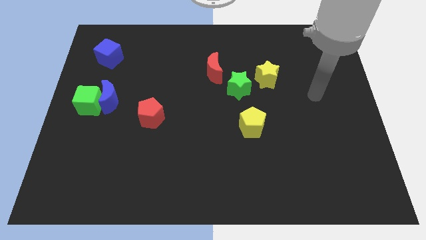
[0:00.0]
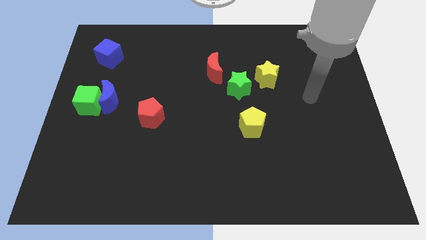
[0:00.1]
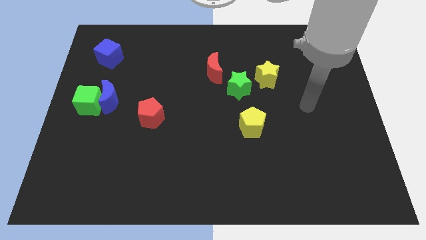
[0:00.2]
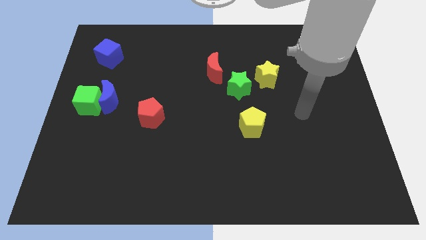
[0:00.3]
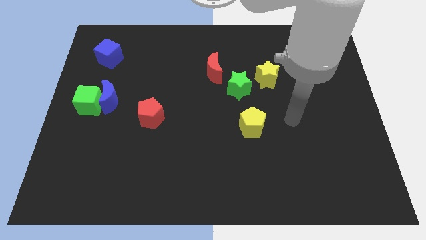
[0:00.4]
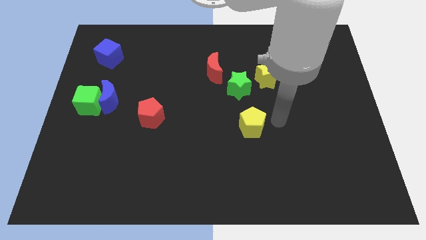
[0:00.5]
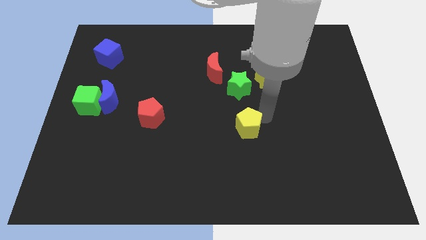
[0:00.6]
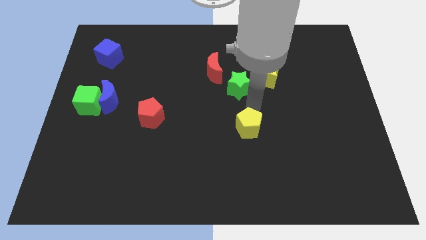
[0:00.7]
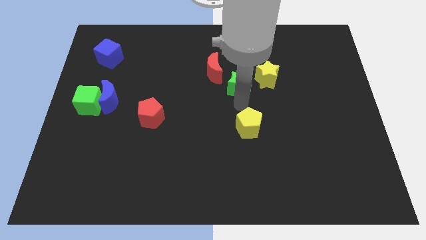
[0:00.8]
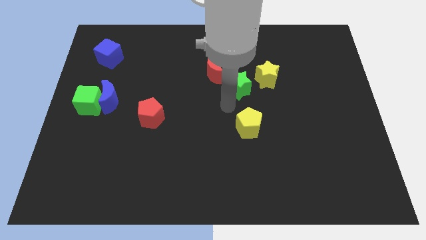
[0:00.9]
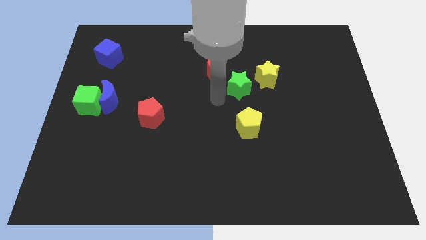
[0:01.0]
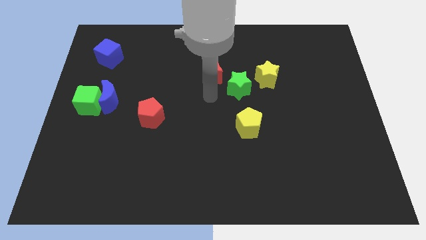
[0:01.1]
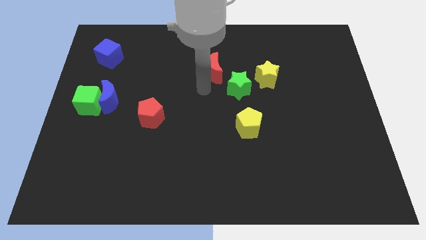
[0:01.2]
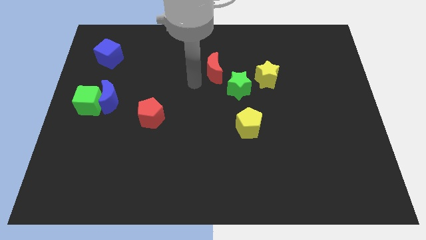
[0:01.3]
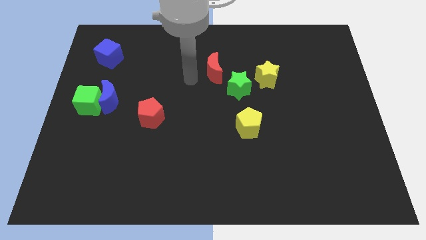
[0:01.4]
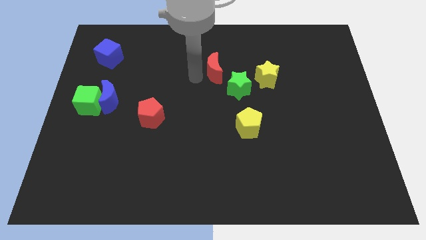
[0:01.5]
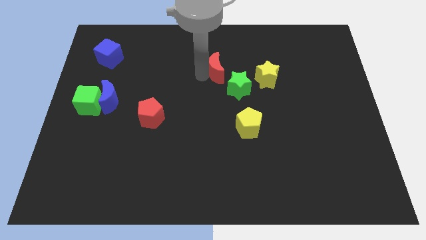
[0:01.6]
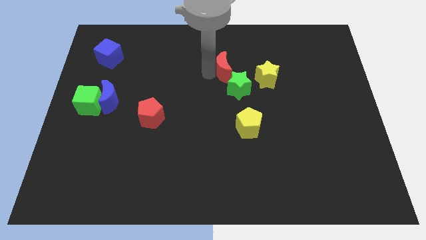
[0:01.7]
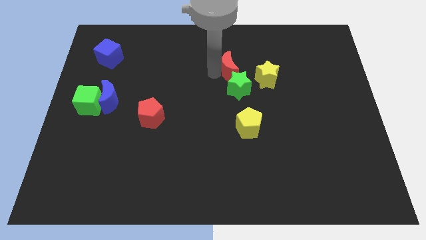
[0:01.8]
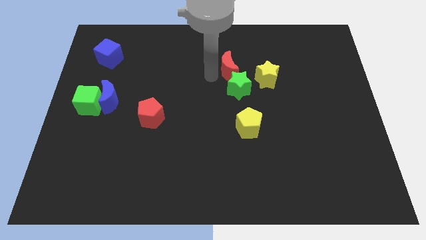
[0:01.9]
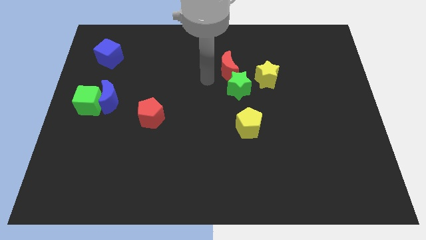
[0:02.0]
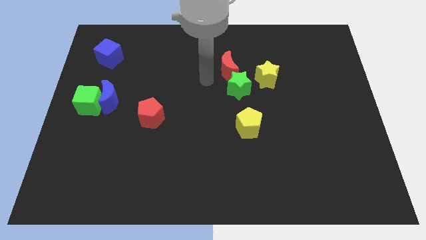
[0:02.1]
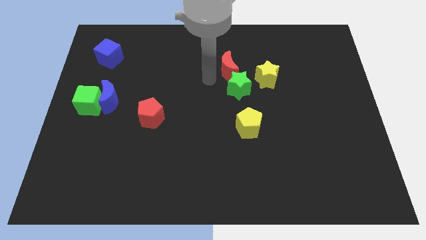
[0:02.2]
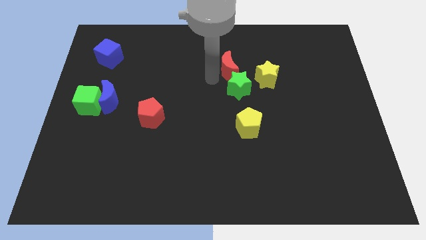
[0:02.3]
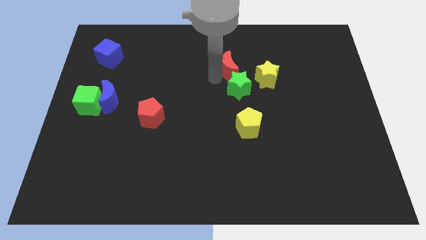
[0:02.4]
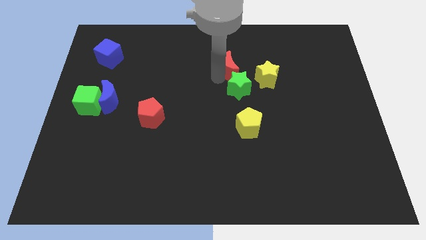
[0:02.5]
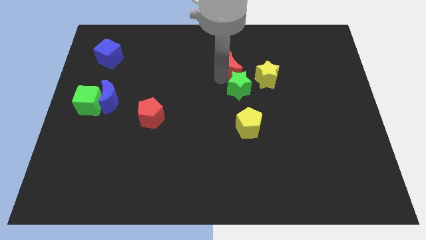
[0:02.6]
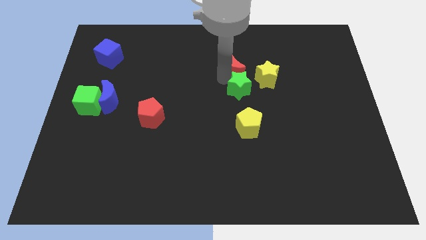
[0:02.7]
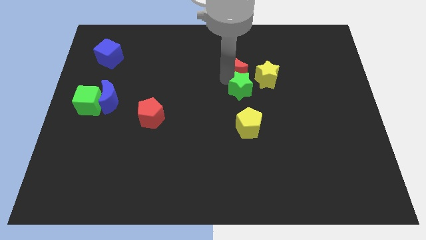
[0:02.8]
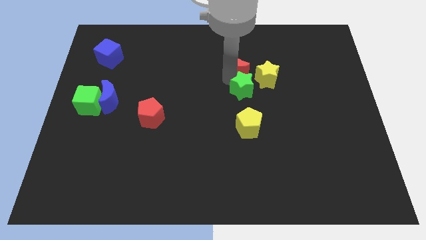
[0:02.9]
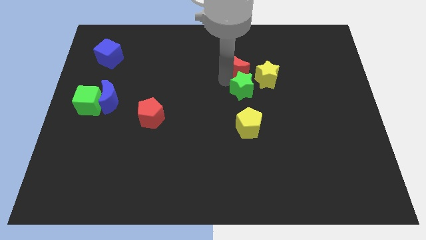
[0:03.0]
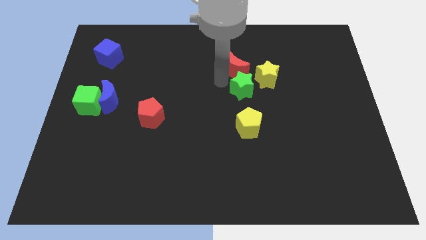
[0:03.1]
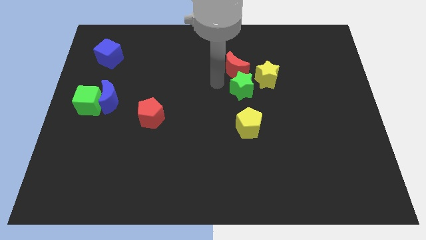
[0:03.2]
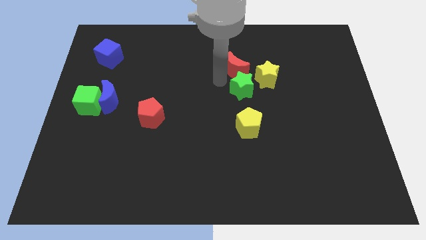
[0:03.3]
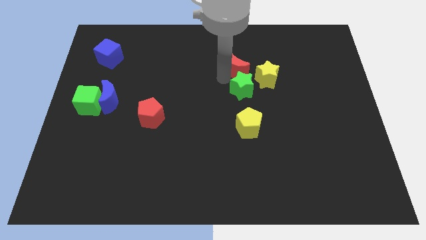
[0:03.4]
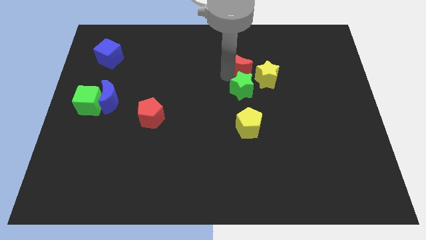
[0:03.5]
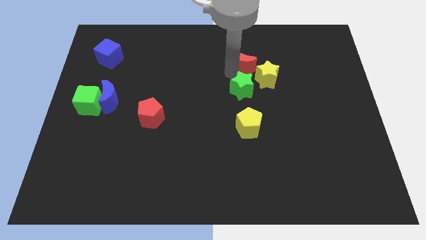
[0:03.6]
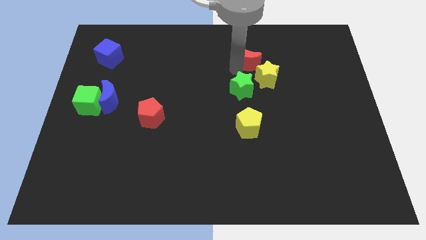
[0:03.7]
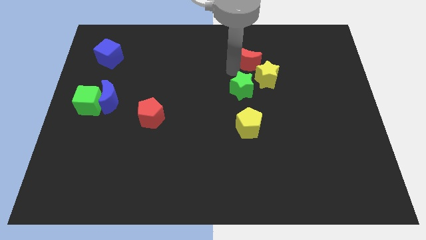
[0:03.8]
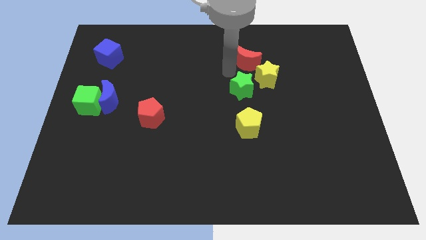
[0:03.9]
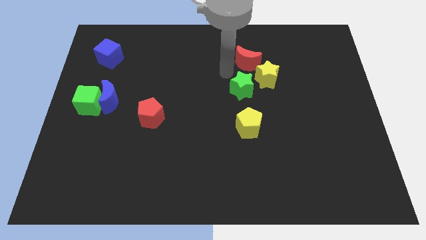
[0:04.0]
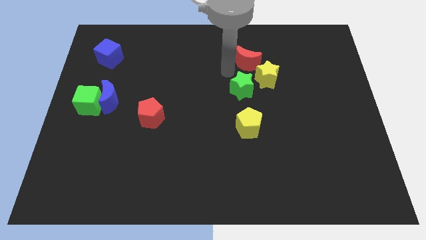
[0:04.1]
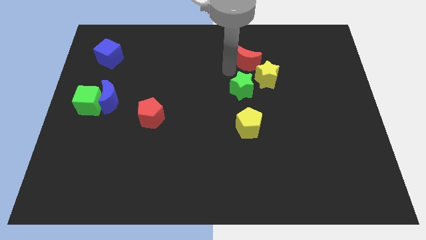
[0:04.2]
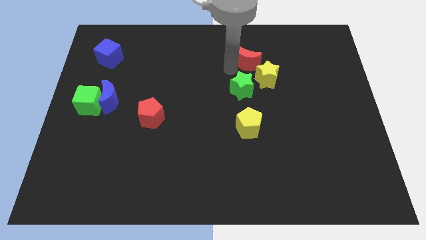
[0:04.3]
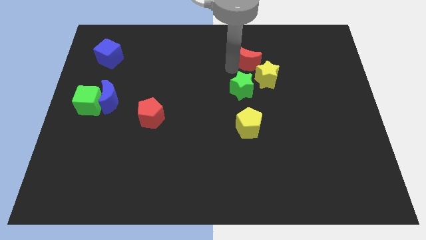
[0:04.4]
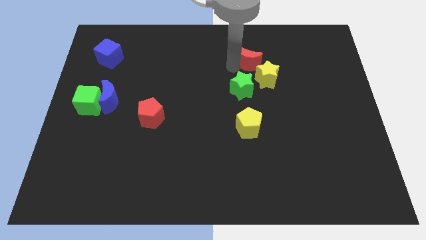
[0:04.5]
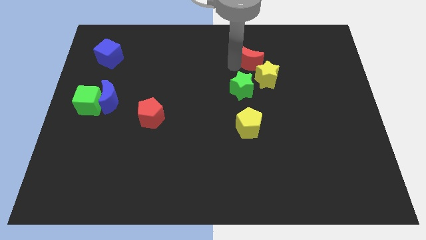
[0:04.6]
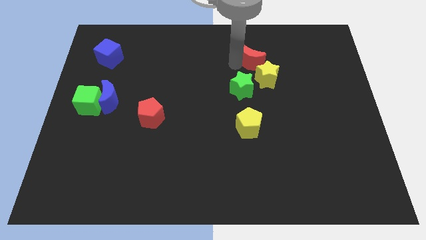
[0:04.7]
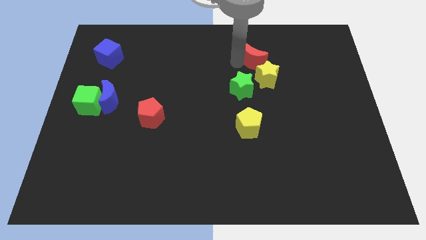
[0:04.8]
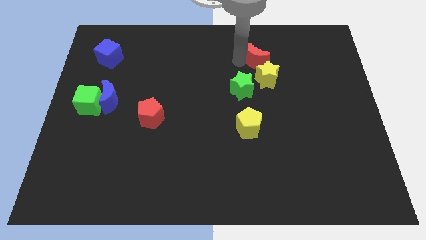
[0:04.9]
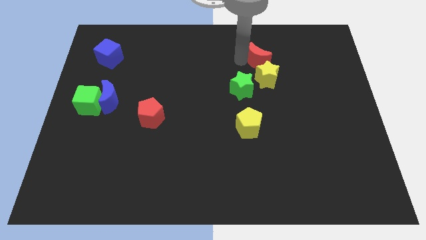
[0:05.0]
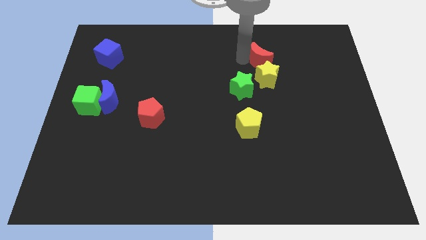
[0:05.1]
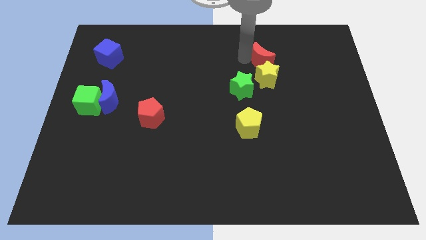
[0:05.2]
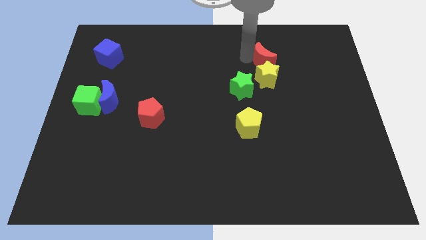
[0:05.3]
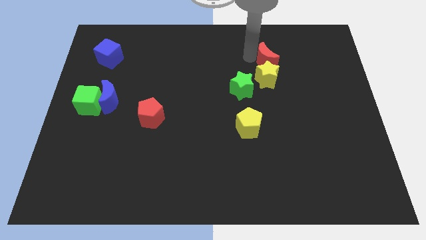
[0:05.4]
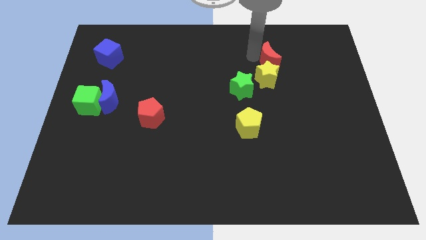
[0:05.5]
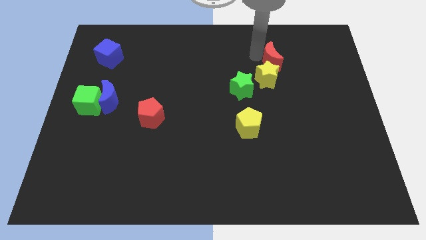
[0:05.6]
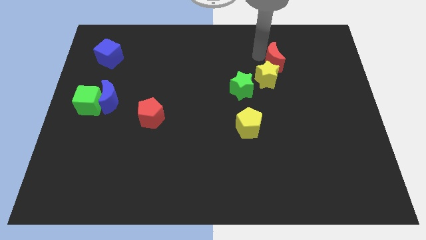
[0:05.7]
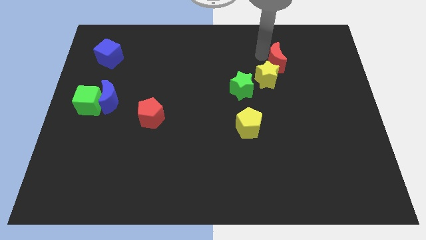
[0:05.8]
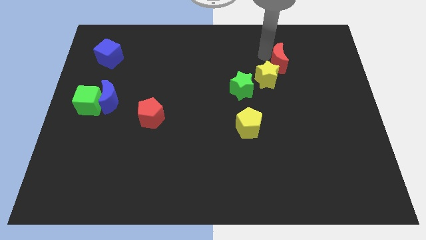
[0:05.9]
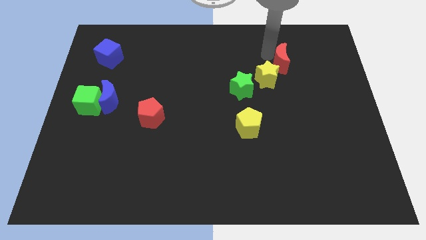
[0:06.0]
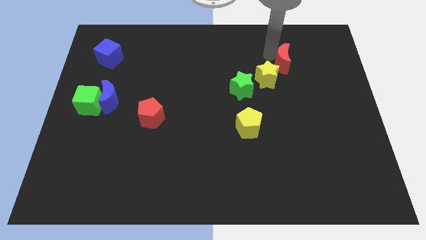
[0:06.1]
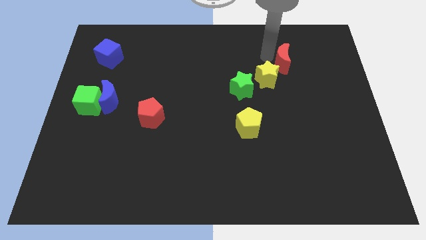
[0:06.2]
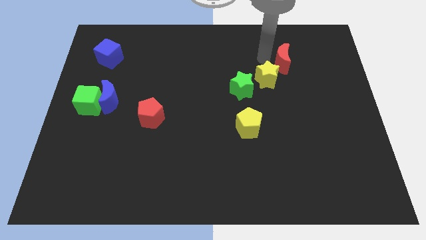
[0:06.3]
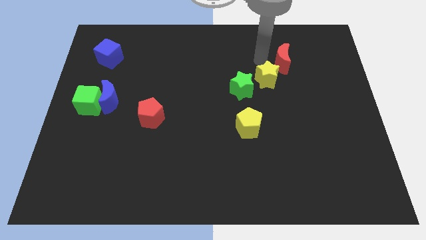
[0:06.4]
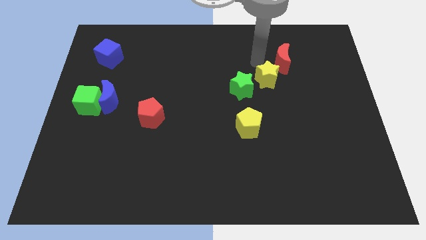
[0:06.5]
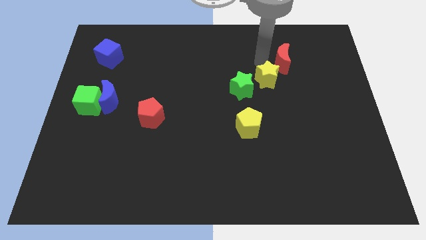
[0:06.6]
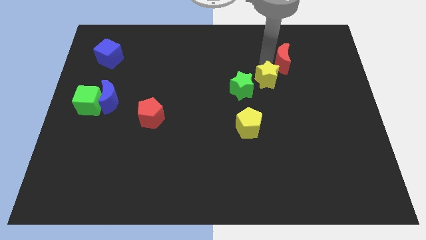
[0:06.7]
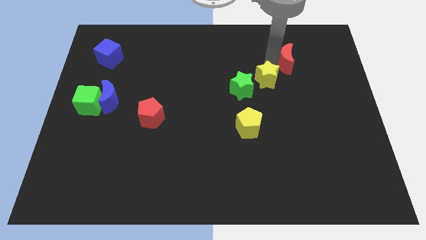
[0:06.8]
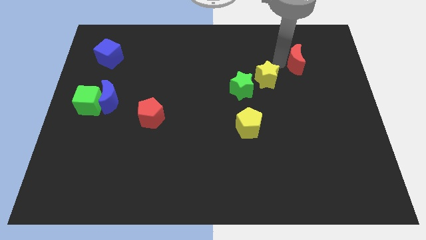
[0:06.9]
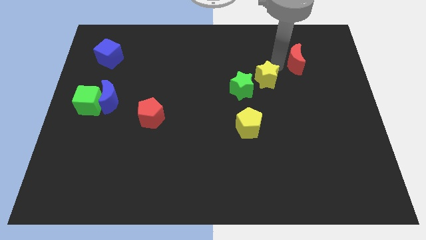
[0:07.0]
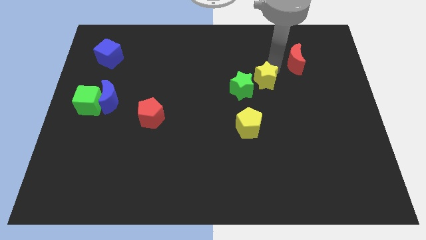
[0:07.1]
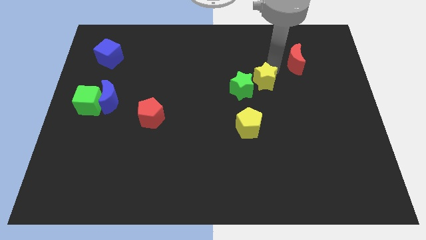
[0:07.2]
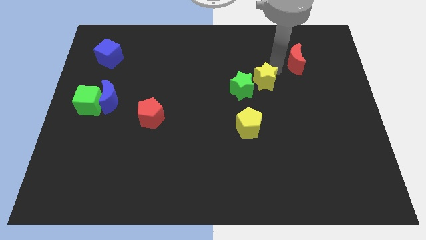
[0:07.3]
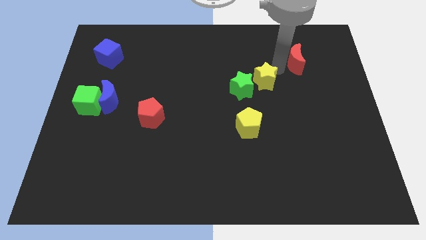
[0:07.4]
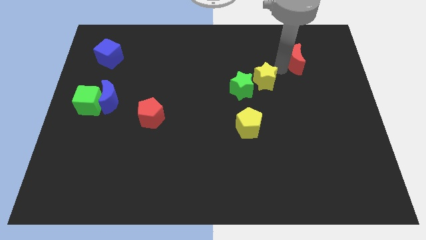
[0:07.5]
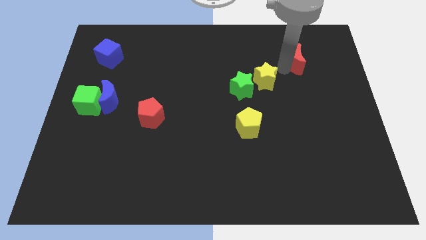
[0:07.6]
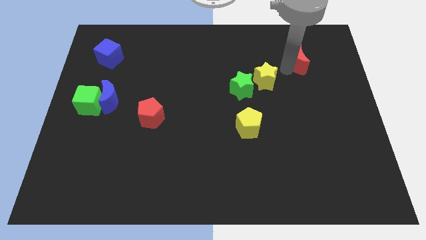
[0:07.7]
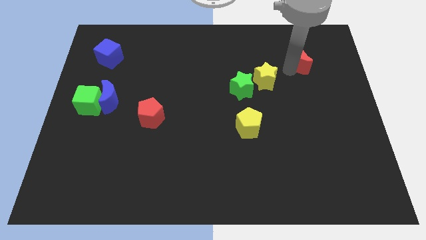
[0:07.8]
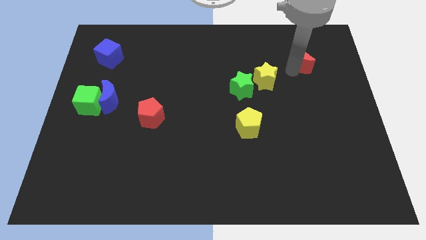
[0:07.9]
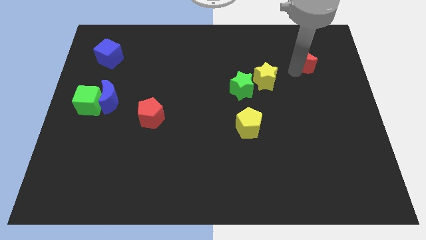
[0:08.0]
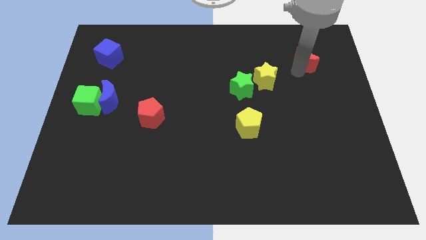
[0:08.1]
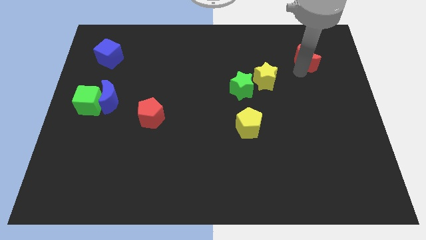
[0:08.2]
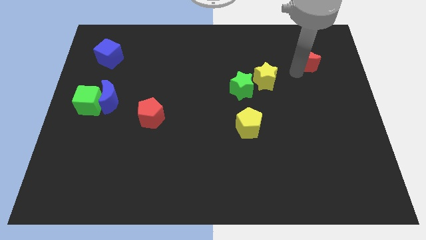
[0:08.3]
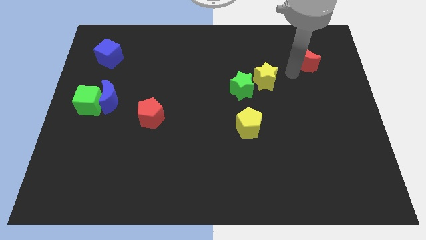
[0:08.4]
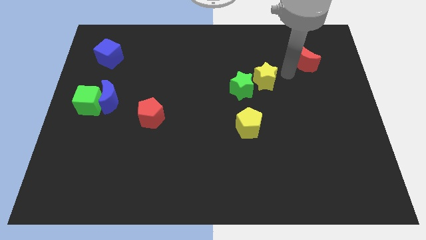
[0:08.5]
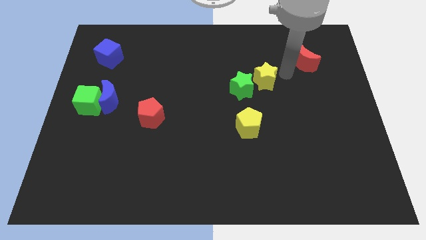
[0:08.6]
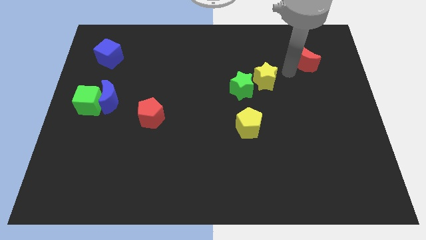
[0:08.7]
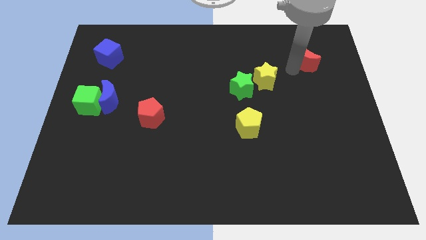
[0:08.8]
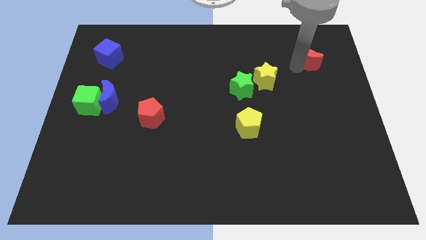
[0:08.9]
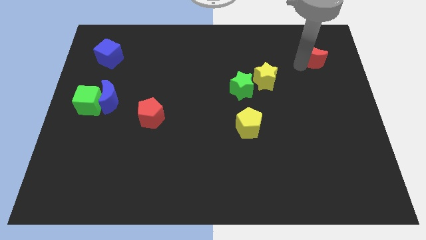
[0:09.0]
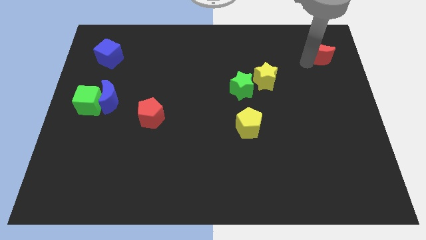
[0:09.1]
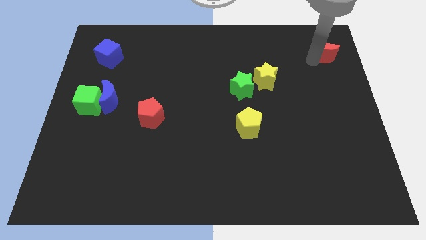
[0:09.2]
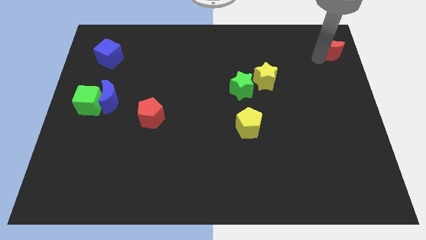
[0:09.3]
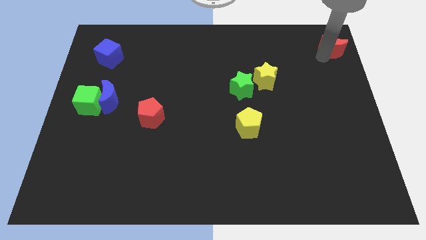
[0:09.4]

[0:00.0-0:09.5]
move the red moon to the upper right corner
